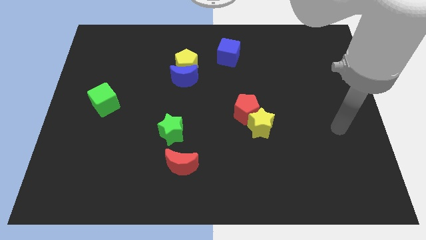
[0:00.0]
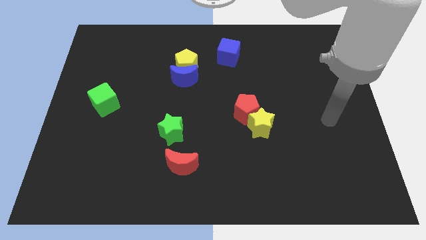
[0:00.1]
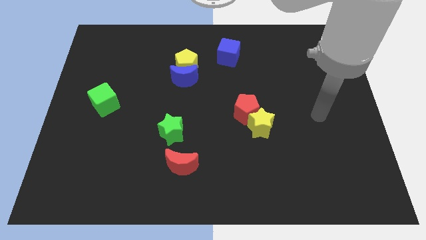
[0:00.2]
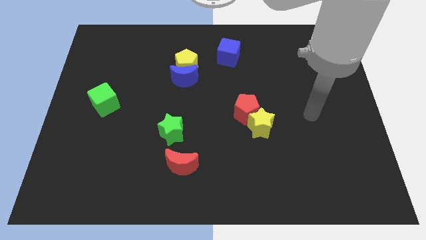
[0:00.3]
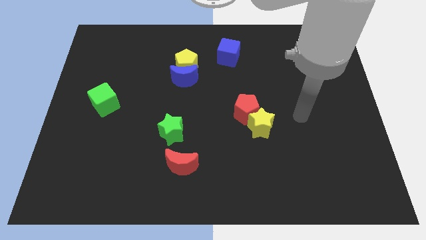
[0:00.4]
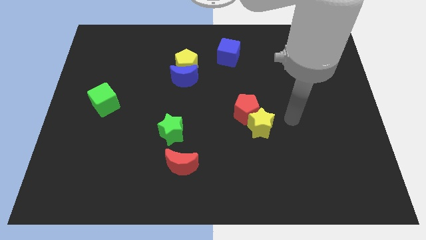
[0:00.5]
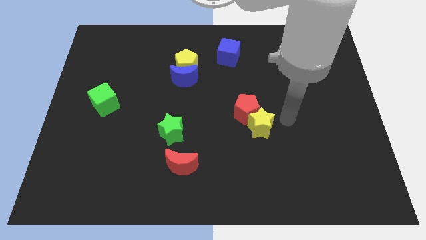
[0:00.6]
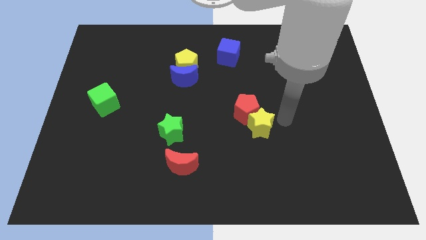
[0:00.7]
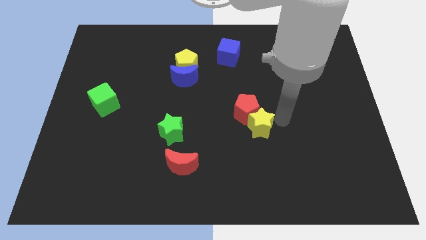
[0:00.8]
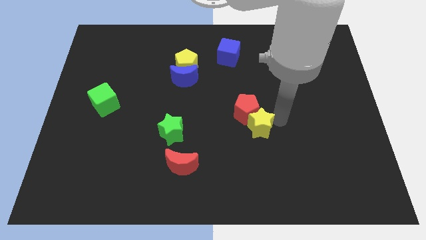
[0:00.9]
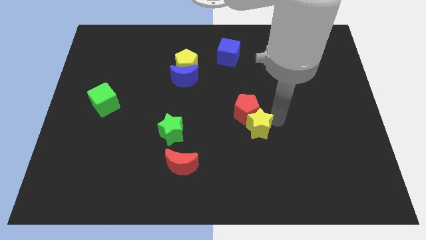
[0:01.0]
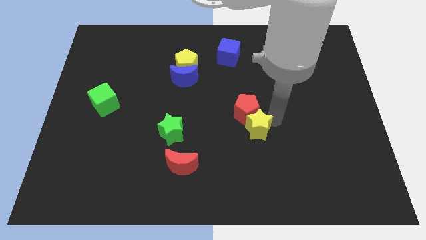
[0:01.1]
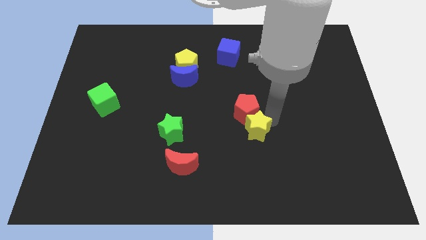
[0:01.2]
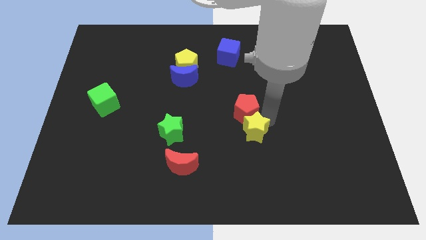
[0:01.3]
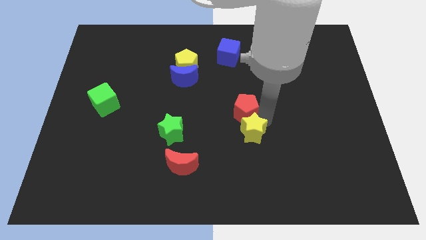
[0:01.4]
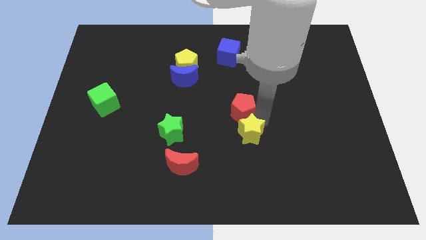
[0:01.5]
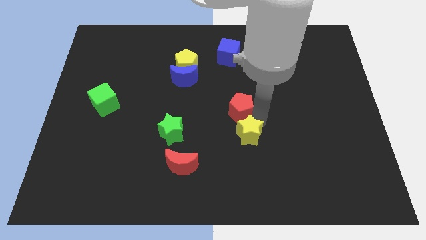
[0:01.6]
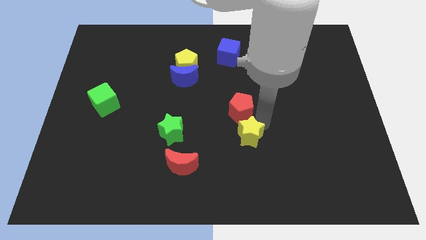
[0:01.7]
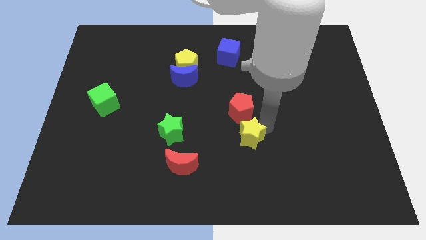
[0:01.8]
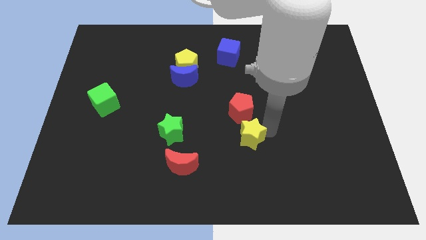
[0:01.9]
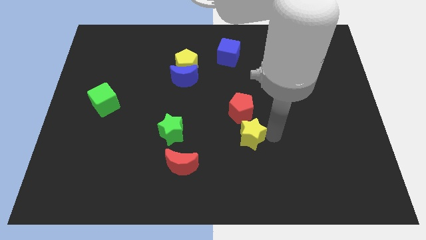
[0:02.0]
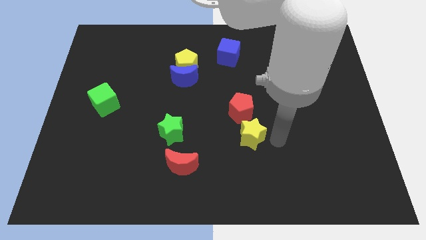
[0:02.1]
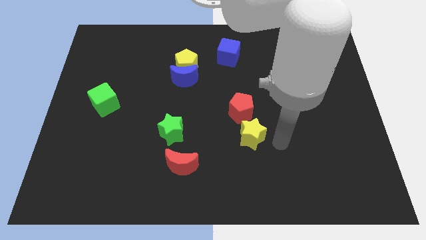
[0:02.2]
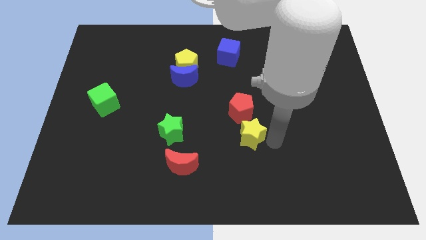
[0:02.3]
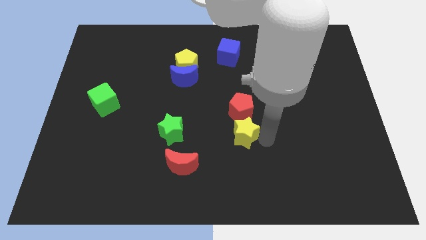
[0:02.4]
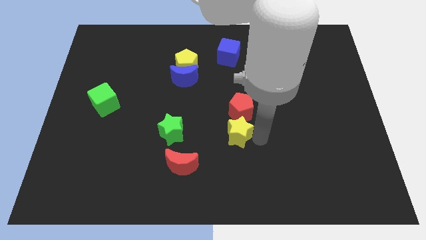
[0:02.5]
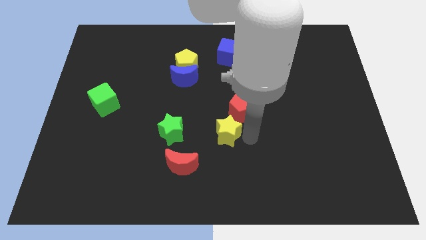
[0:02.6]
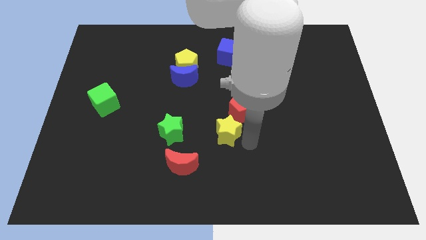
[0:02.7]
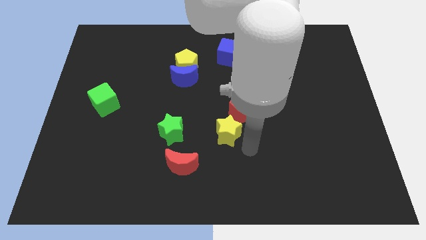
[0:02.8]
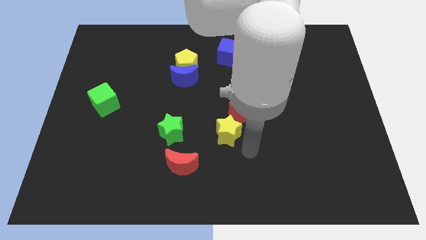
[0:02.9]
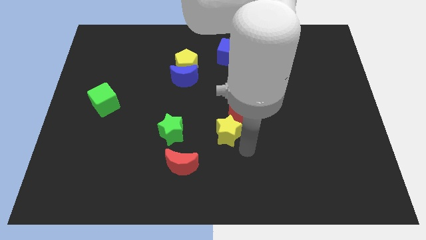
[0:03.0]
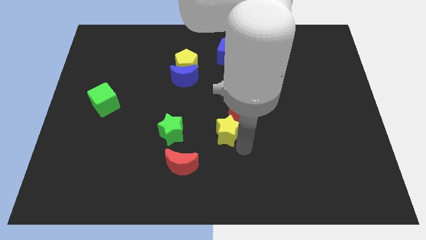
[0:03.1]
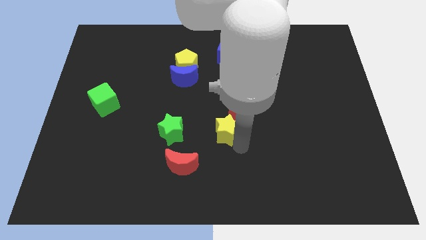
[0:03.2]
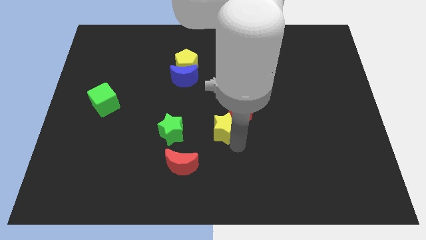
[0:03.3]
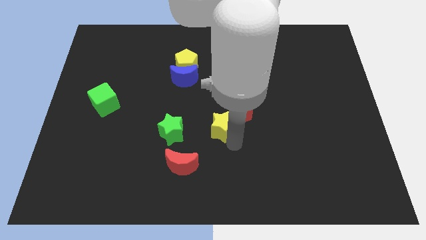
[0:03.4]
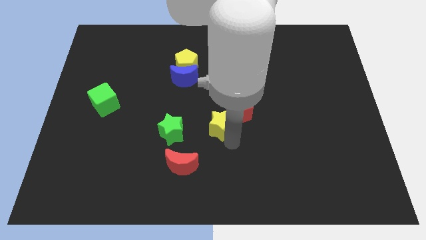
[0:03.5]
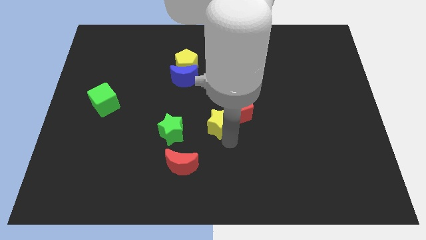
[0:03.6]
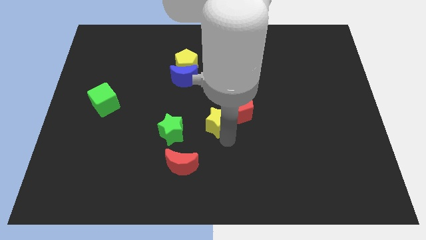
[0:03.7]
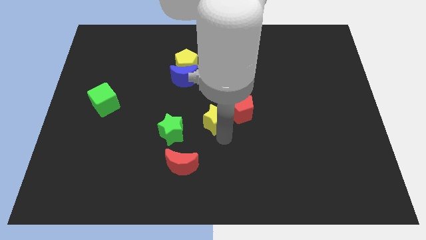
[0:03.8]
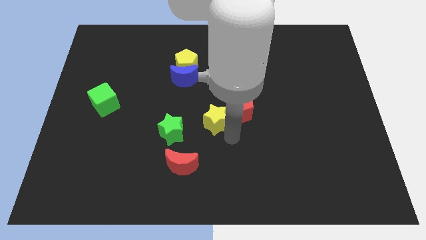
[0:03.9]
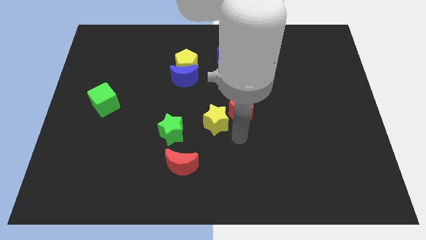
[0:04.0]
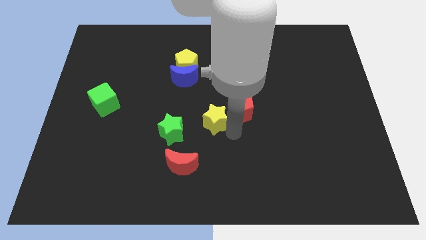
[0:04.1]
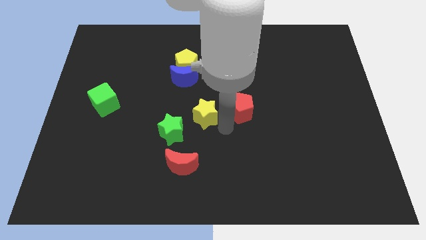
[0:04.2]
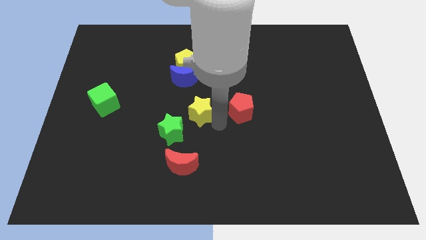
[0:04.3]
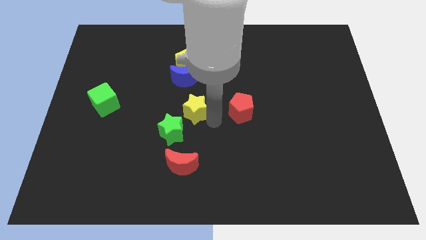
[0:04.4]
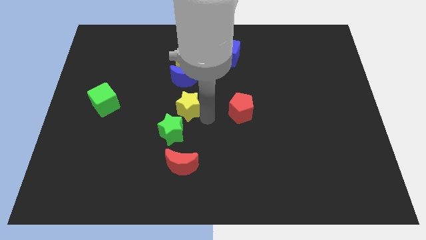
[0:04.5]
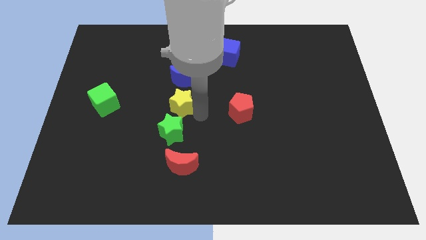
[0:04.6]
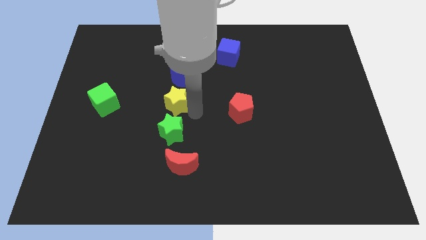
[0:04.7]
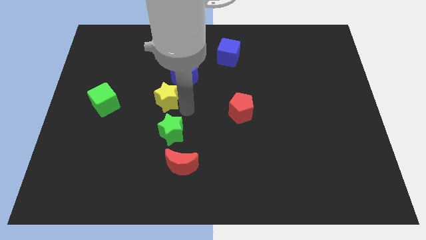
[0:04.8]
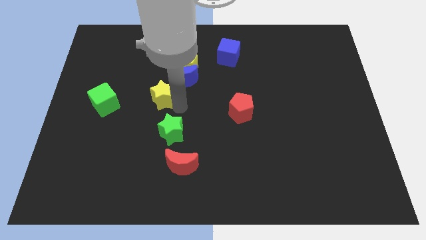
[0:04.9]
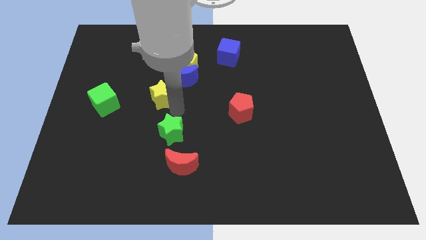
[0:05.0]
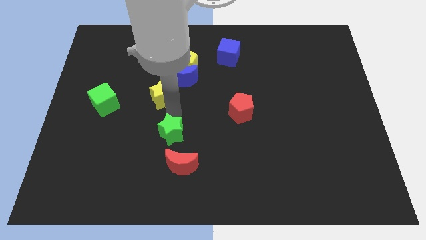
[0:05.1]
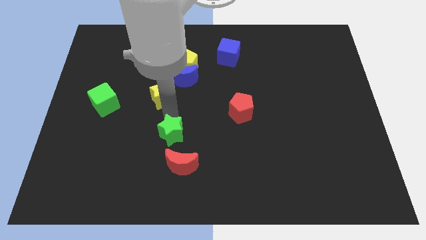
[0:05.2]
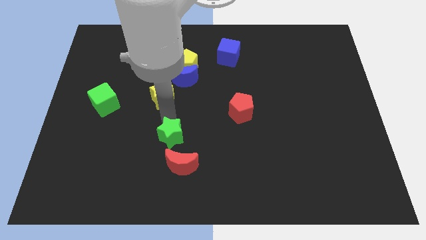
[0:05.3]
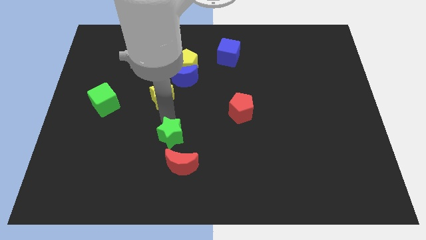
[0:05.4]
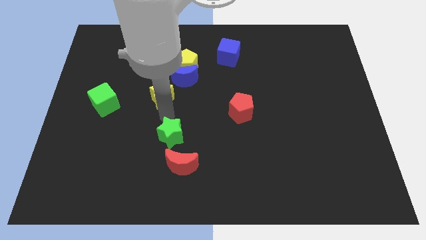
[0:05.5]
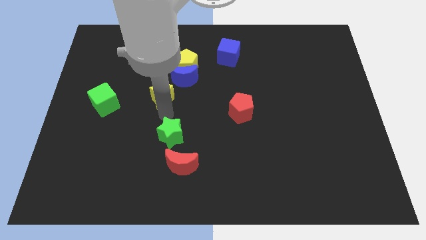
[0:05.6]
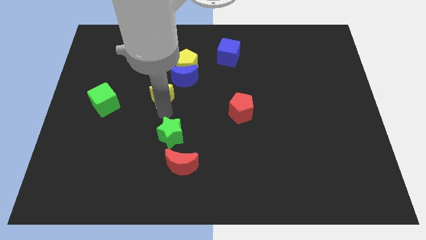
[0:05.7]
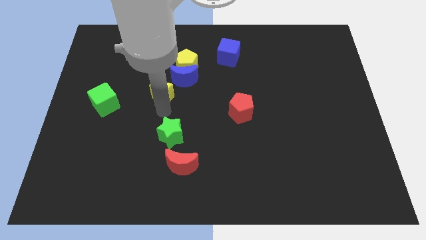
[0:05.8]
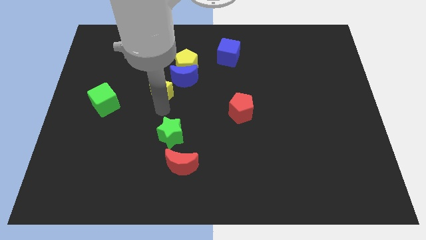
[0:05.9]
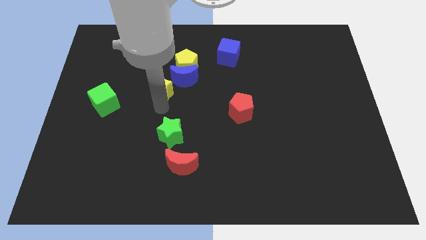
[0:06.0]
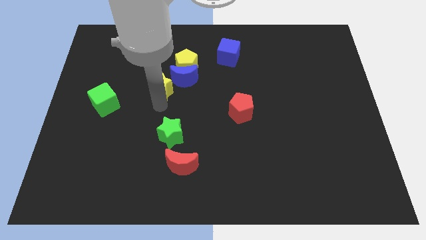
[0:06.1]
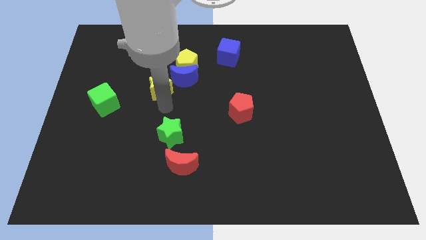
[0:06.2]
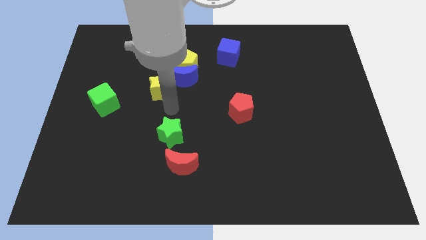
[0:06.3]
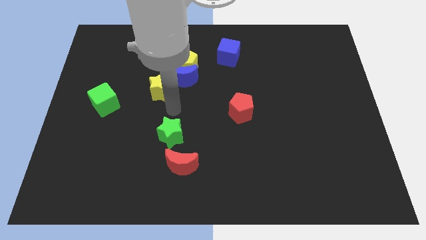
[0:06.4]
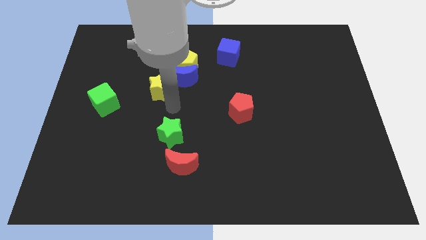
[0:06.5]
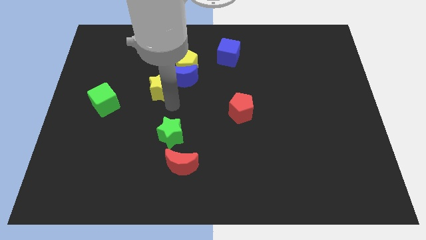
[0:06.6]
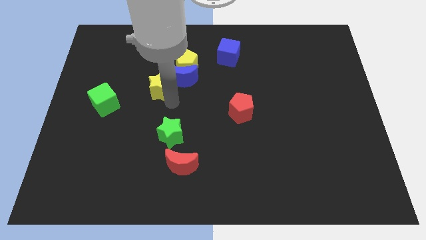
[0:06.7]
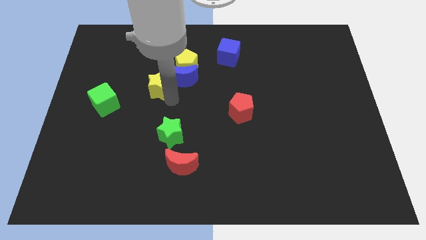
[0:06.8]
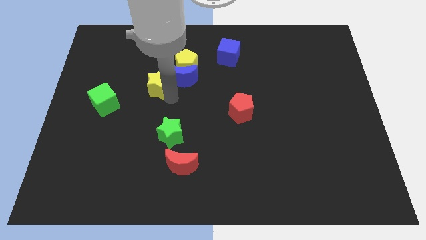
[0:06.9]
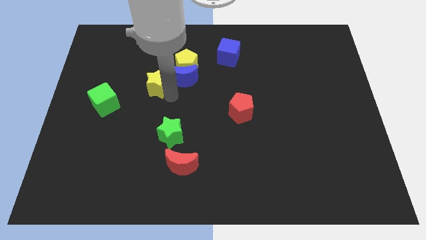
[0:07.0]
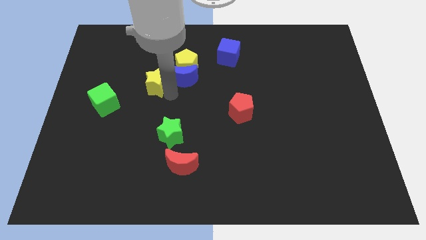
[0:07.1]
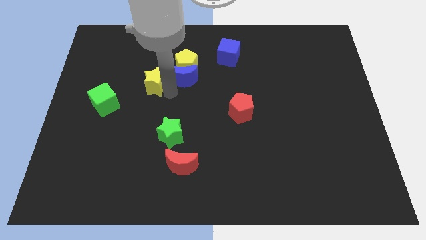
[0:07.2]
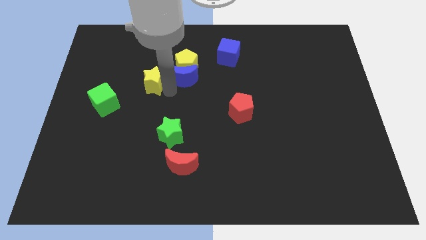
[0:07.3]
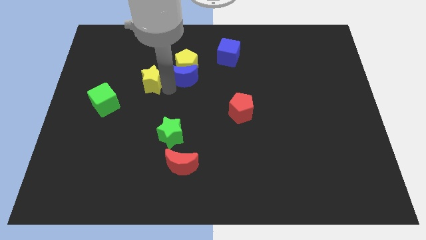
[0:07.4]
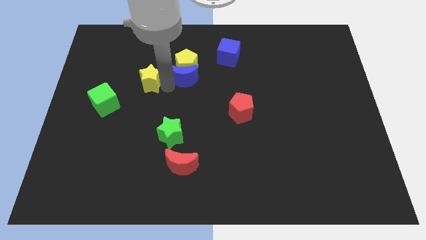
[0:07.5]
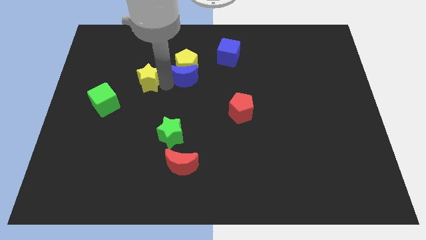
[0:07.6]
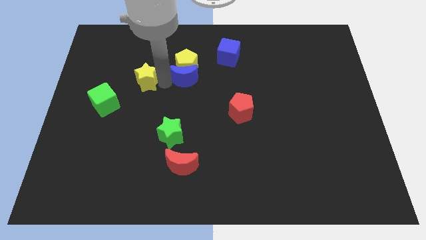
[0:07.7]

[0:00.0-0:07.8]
move the yellow star to the left side of the yellow pentagon
